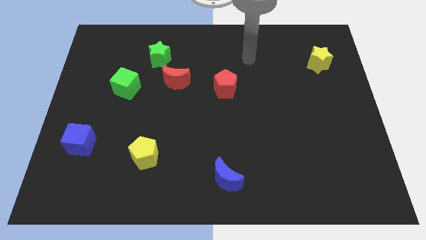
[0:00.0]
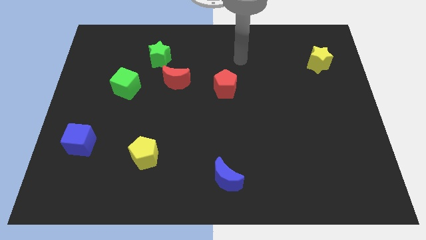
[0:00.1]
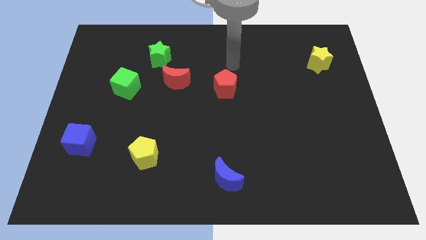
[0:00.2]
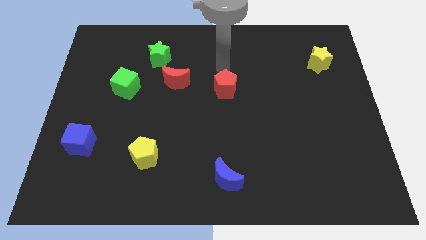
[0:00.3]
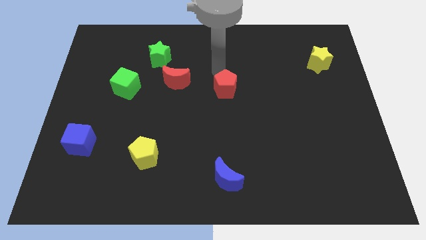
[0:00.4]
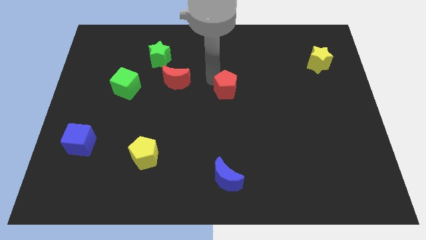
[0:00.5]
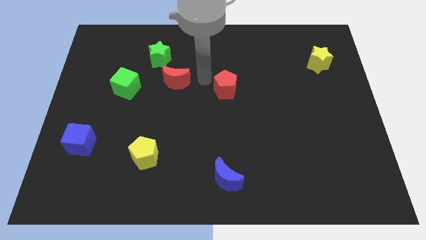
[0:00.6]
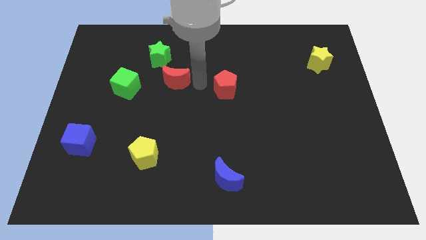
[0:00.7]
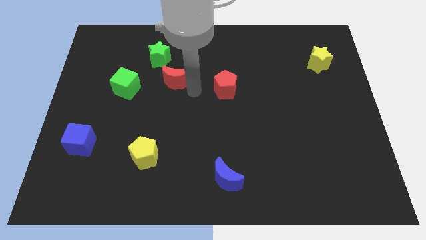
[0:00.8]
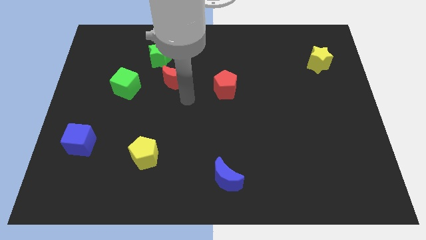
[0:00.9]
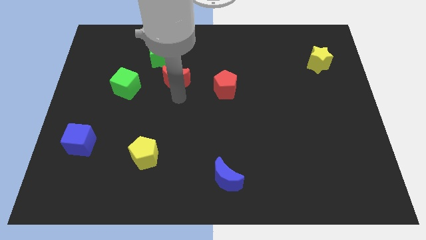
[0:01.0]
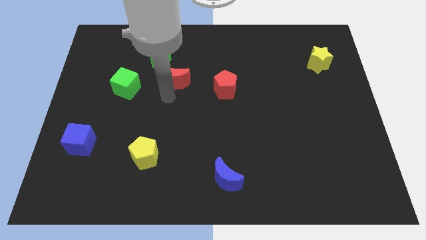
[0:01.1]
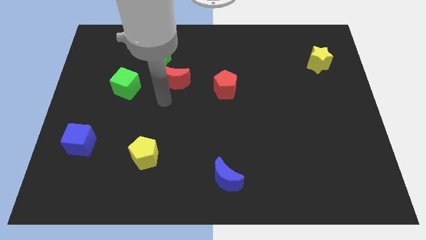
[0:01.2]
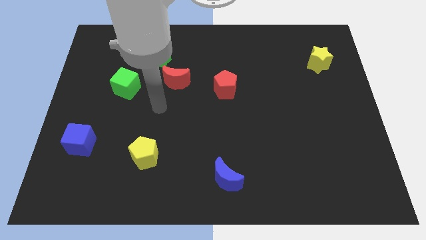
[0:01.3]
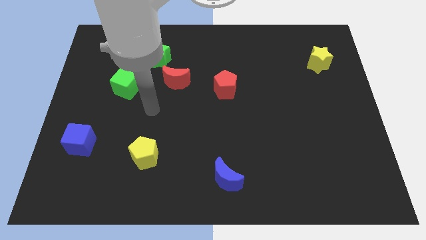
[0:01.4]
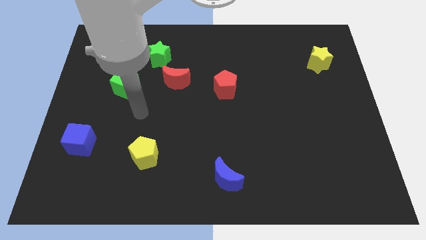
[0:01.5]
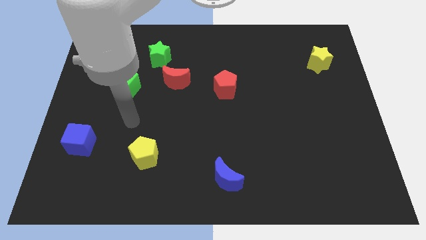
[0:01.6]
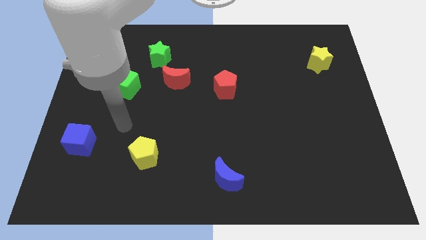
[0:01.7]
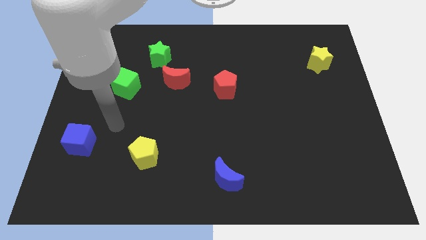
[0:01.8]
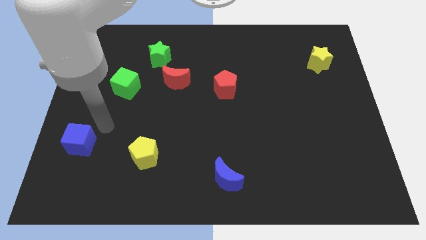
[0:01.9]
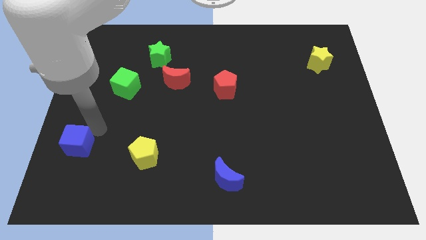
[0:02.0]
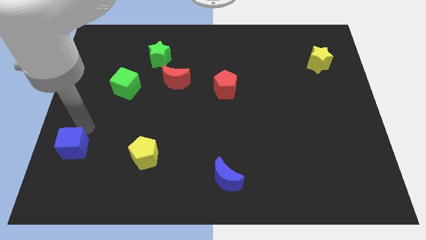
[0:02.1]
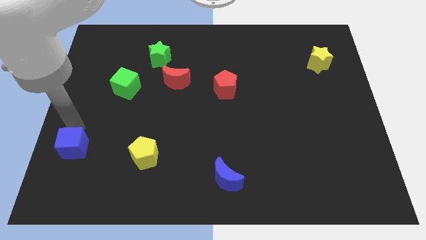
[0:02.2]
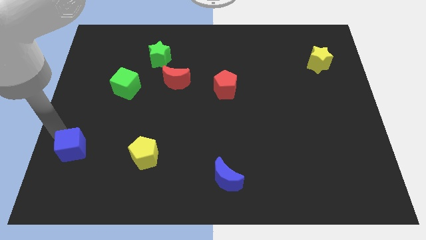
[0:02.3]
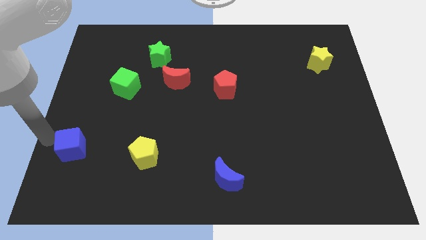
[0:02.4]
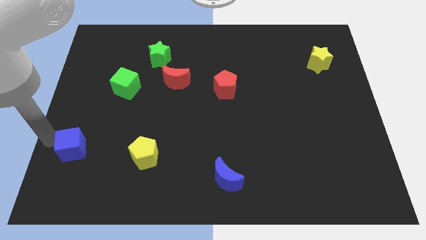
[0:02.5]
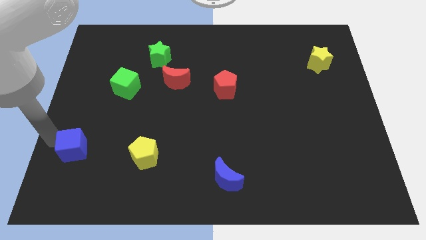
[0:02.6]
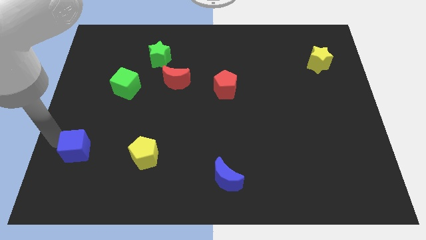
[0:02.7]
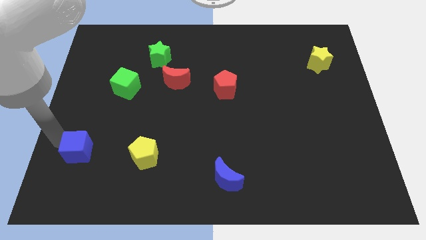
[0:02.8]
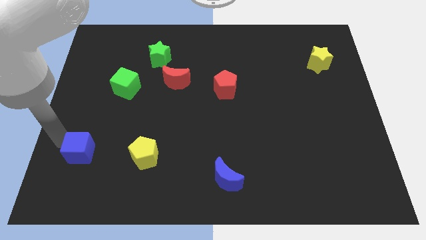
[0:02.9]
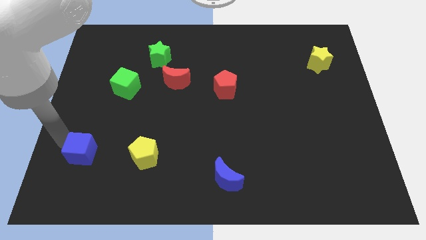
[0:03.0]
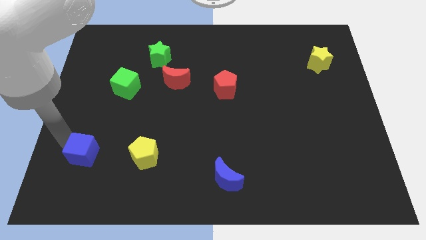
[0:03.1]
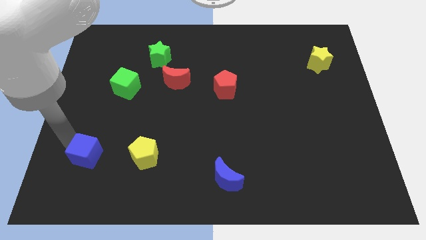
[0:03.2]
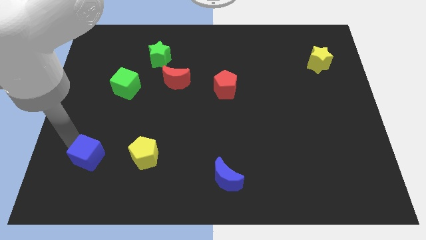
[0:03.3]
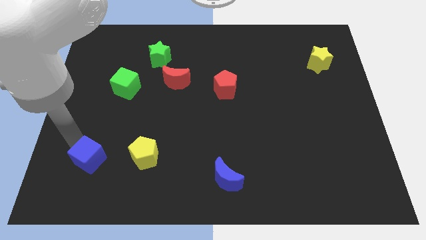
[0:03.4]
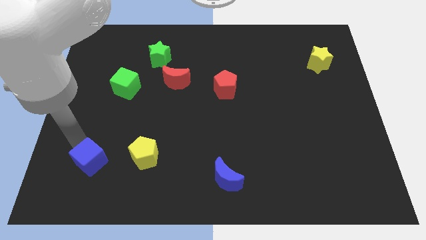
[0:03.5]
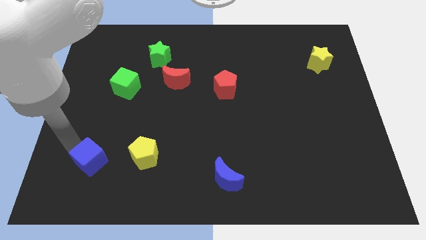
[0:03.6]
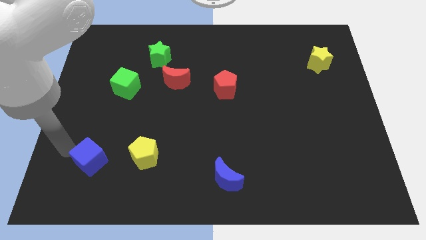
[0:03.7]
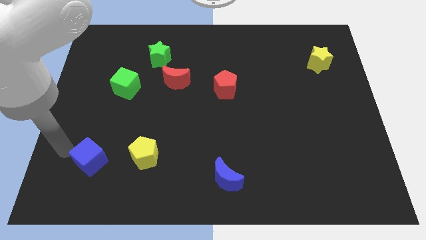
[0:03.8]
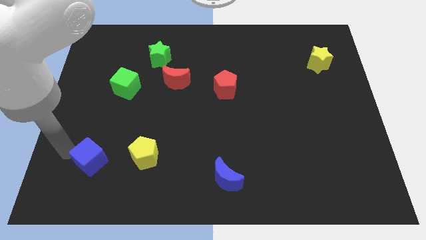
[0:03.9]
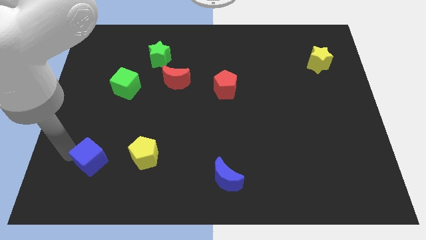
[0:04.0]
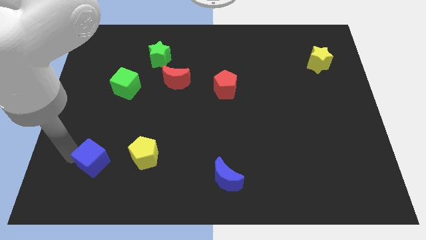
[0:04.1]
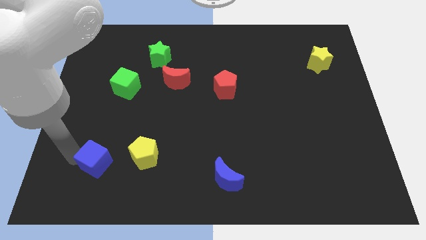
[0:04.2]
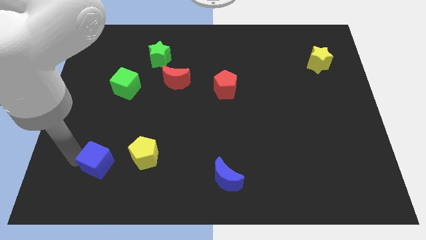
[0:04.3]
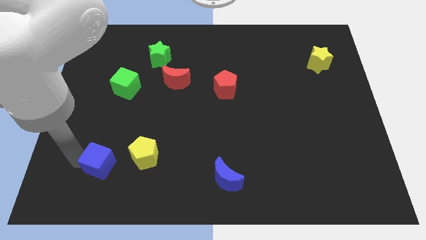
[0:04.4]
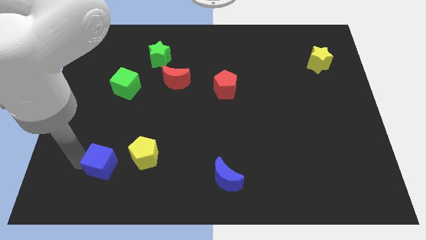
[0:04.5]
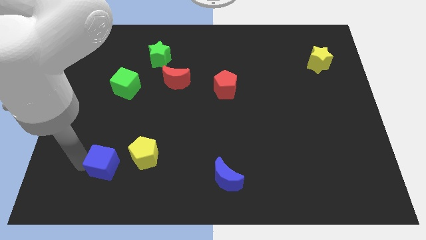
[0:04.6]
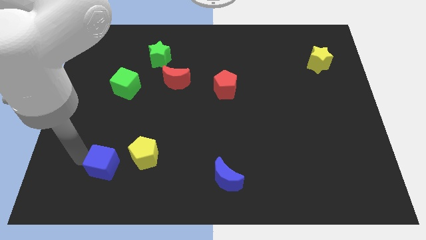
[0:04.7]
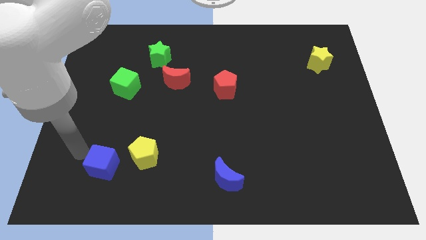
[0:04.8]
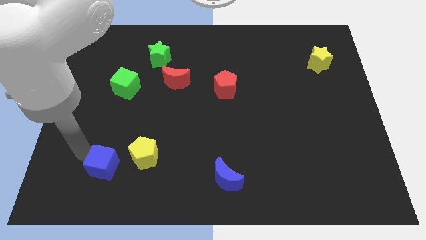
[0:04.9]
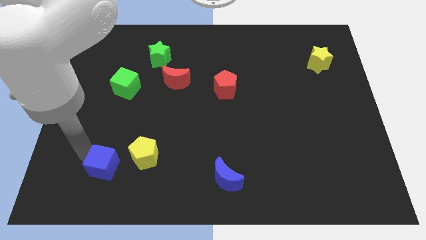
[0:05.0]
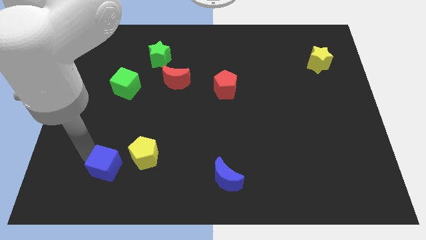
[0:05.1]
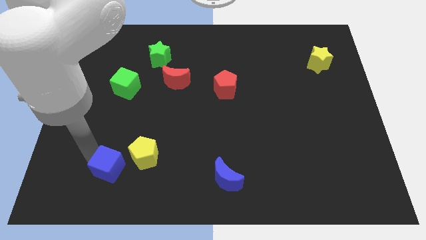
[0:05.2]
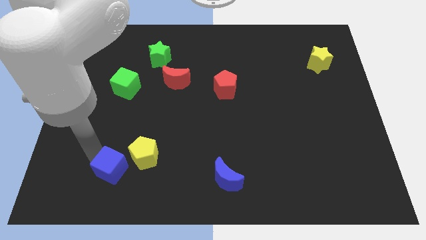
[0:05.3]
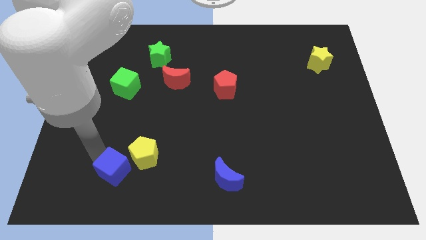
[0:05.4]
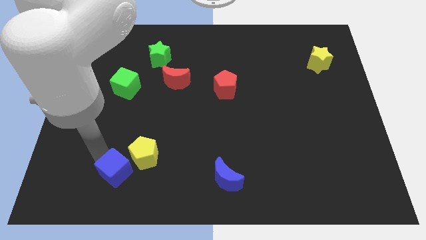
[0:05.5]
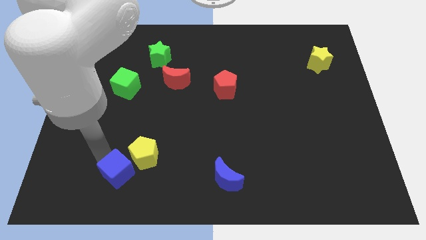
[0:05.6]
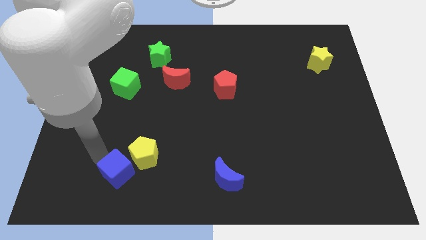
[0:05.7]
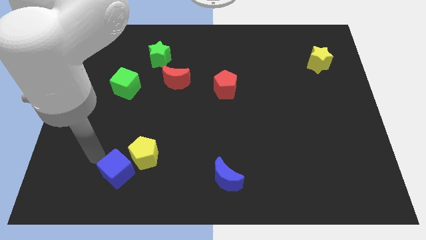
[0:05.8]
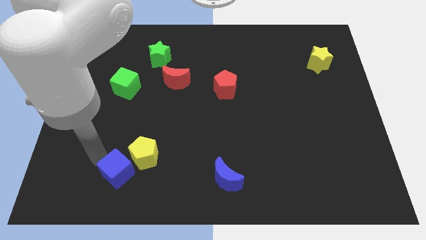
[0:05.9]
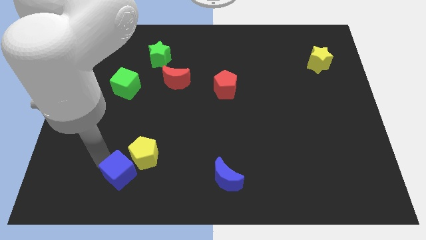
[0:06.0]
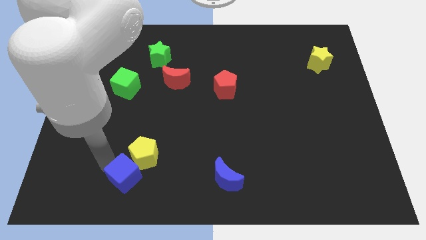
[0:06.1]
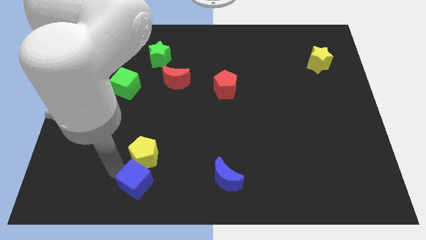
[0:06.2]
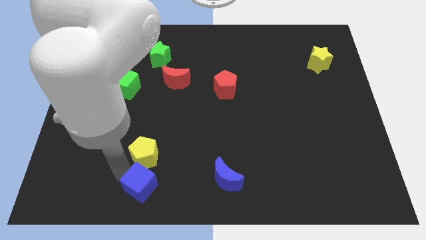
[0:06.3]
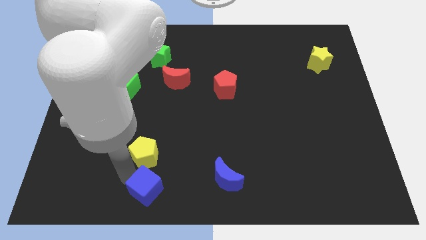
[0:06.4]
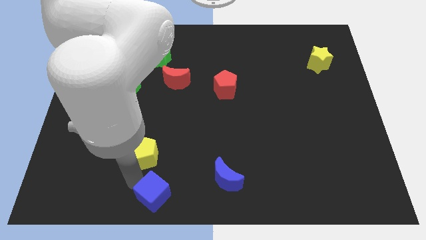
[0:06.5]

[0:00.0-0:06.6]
put the blue cube to the bottom side

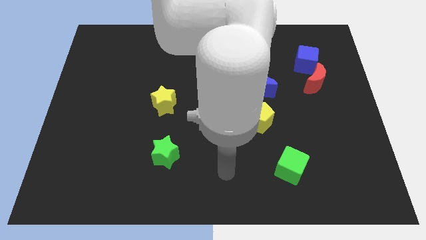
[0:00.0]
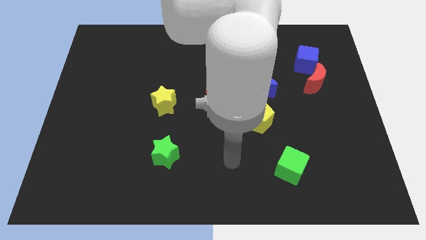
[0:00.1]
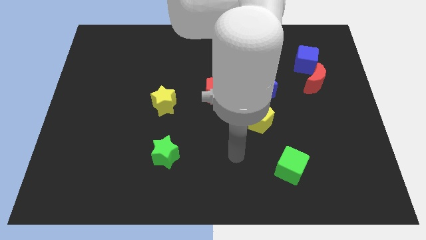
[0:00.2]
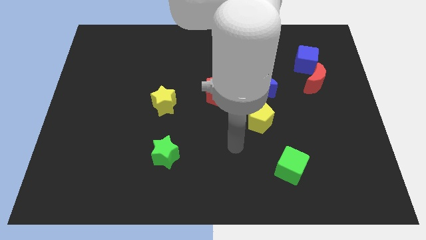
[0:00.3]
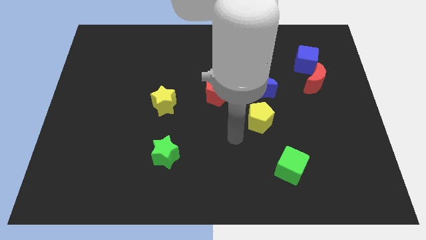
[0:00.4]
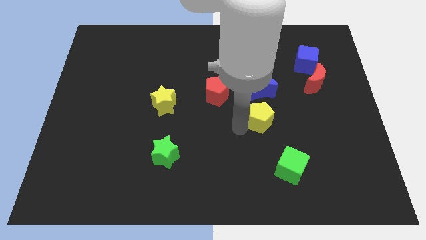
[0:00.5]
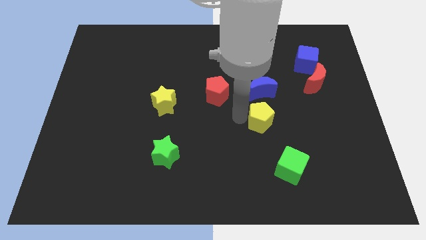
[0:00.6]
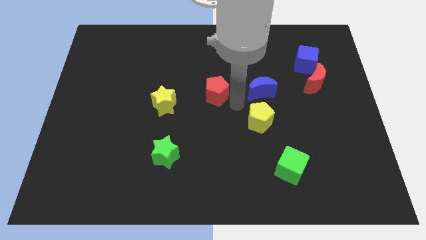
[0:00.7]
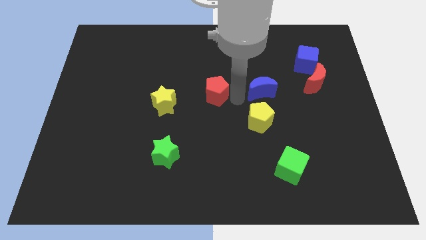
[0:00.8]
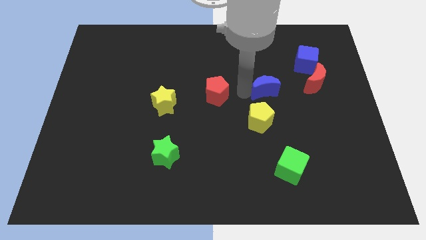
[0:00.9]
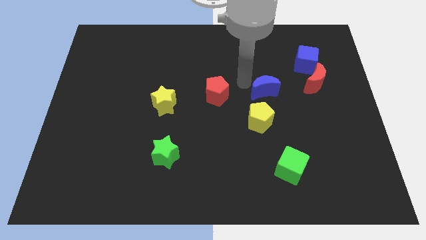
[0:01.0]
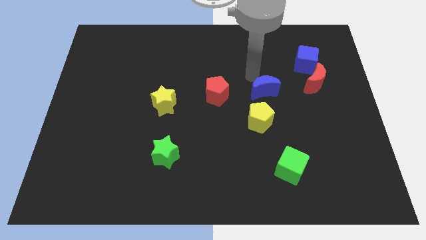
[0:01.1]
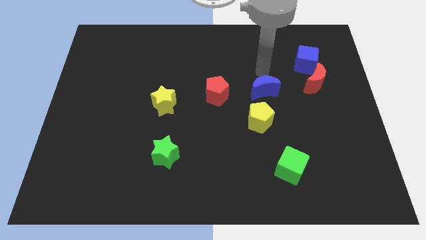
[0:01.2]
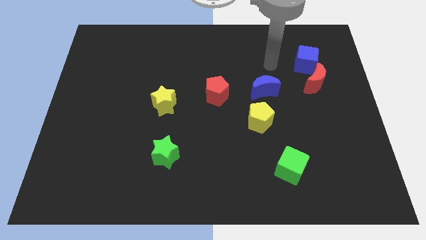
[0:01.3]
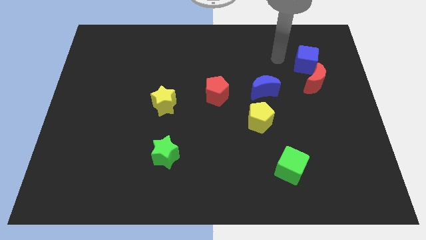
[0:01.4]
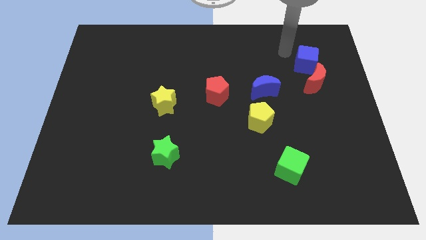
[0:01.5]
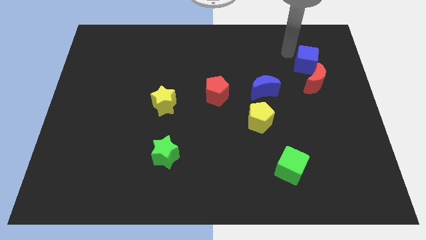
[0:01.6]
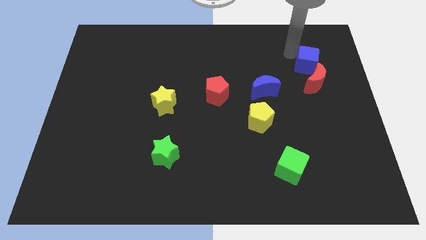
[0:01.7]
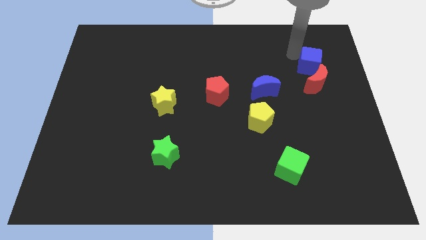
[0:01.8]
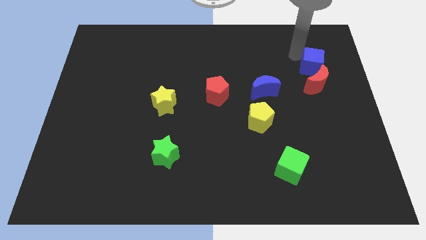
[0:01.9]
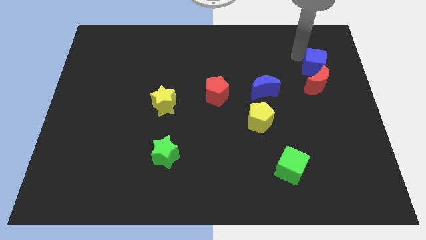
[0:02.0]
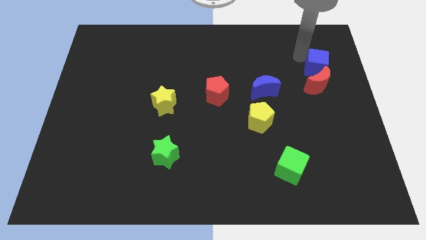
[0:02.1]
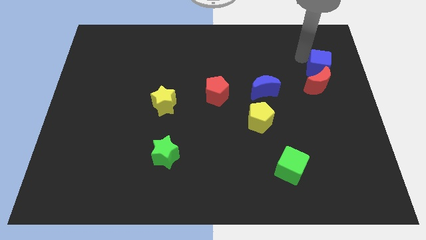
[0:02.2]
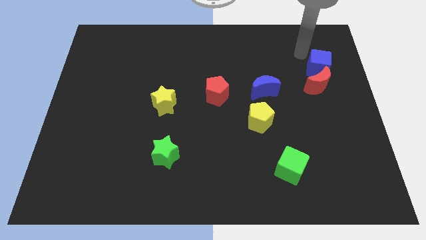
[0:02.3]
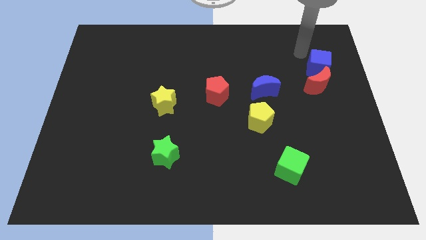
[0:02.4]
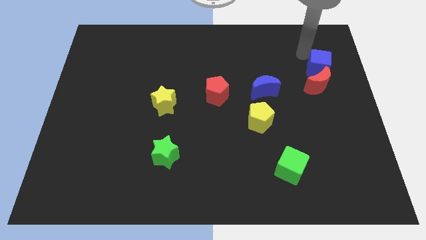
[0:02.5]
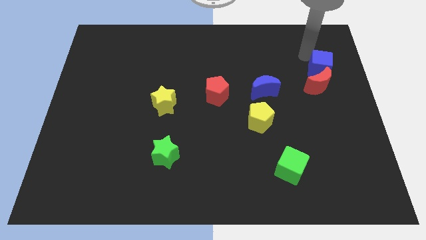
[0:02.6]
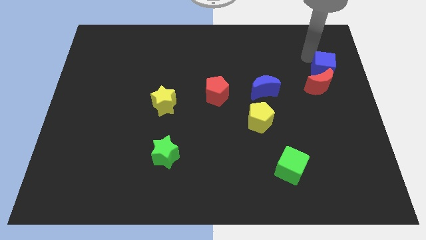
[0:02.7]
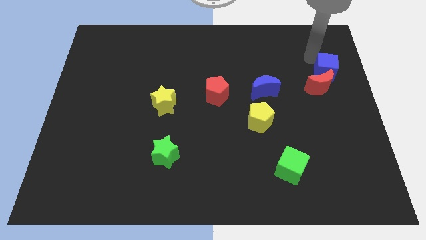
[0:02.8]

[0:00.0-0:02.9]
slide the blue cube to the center right
